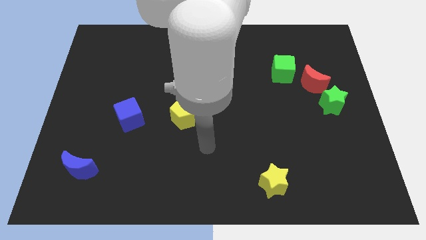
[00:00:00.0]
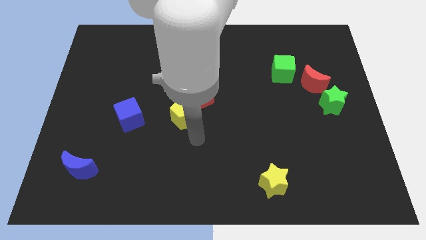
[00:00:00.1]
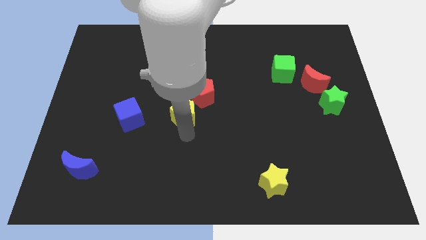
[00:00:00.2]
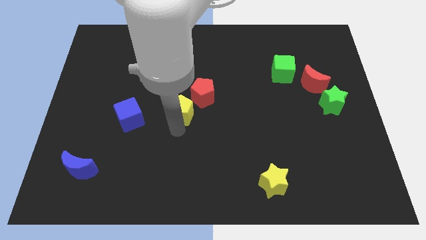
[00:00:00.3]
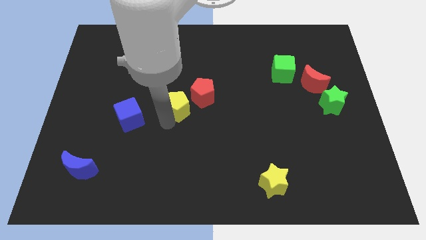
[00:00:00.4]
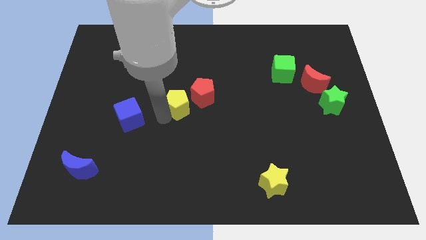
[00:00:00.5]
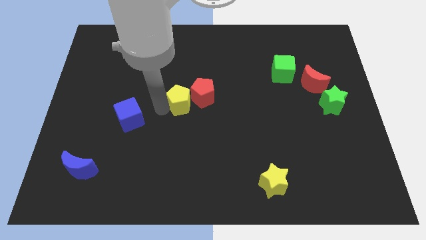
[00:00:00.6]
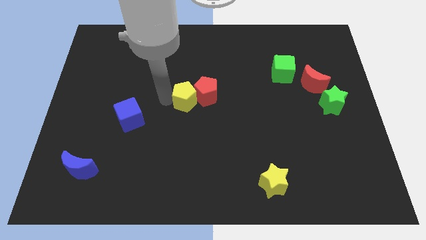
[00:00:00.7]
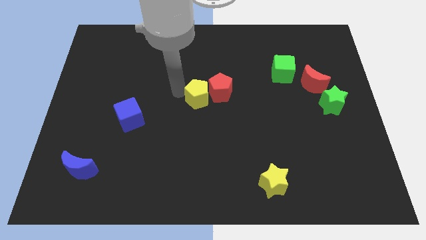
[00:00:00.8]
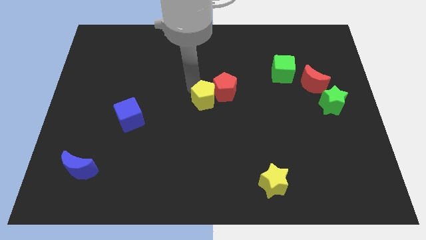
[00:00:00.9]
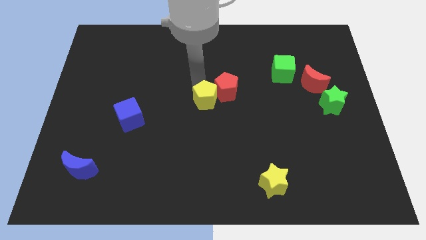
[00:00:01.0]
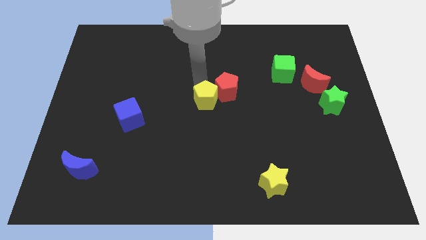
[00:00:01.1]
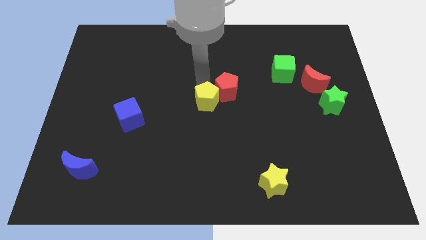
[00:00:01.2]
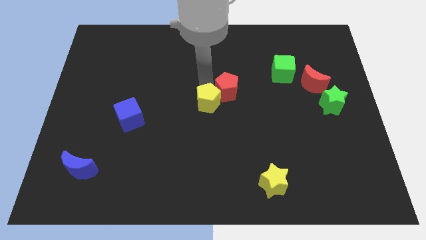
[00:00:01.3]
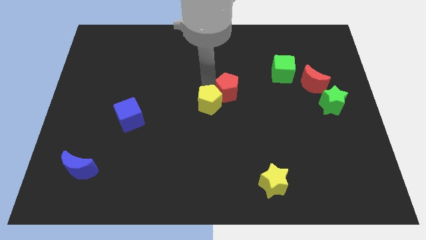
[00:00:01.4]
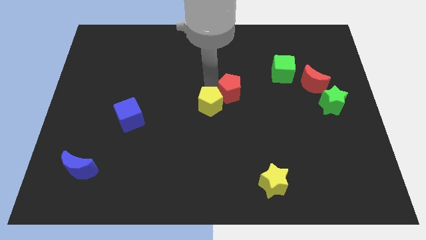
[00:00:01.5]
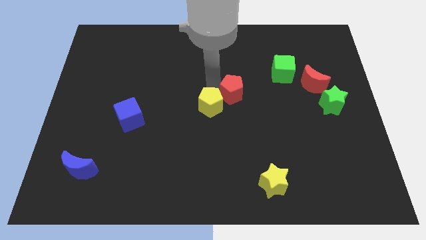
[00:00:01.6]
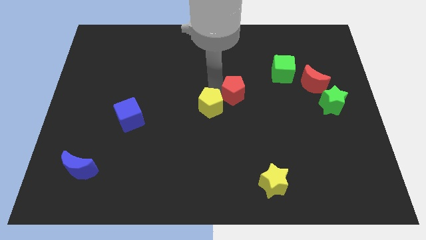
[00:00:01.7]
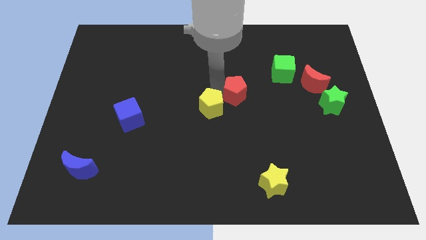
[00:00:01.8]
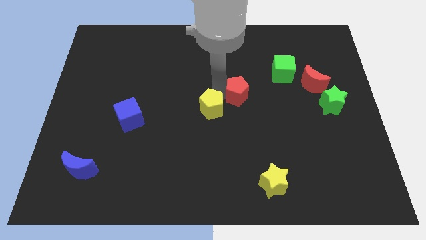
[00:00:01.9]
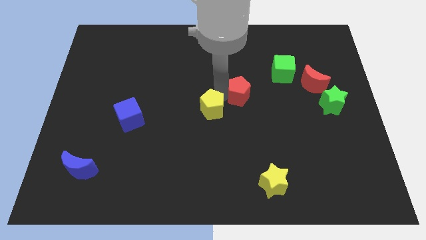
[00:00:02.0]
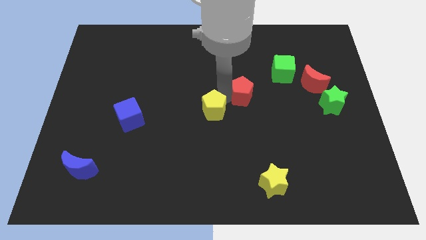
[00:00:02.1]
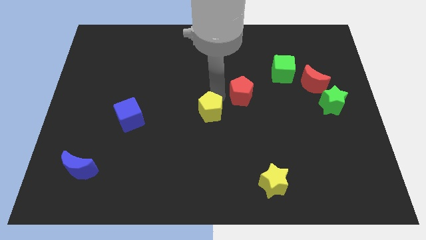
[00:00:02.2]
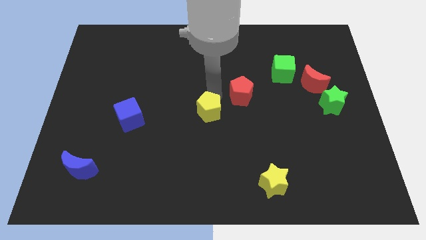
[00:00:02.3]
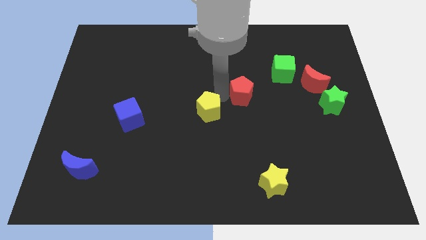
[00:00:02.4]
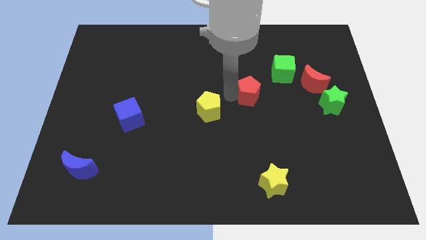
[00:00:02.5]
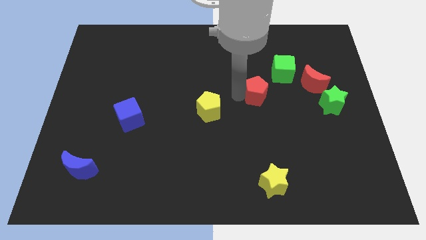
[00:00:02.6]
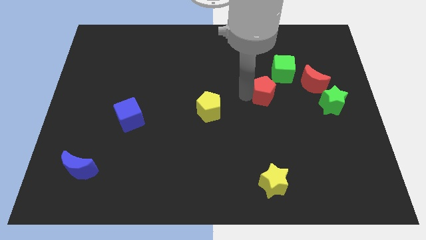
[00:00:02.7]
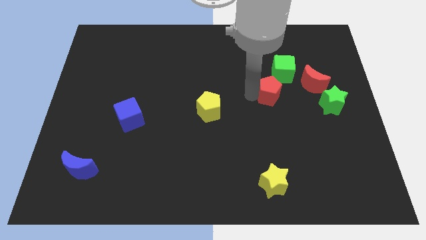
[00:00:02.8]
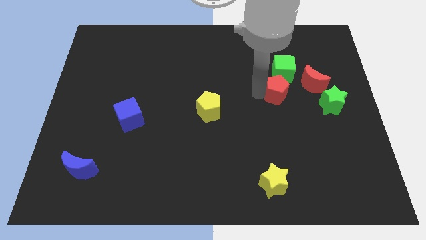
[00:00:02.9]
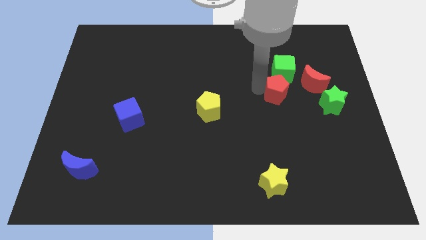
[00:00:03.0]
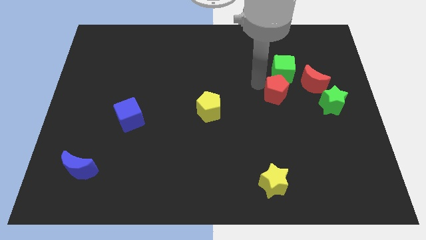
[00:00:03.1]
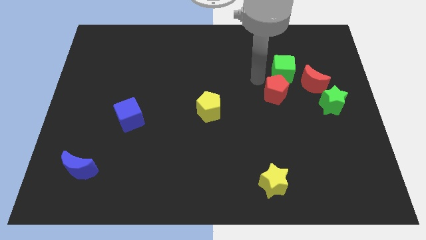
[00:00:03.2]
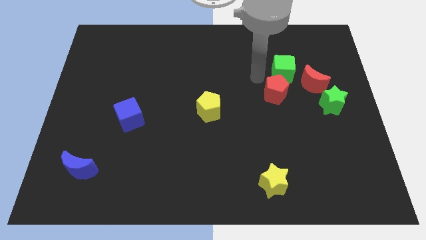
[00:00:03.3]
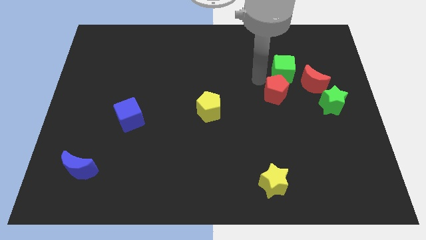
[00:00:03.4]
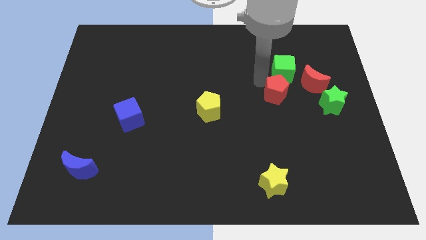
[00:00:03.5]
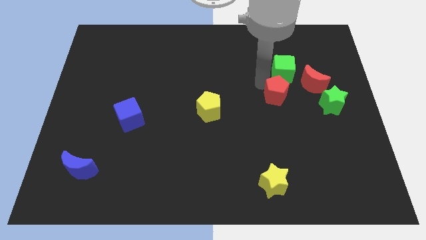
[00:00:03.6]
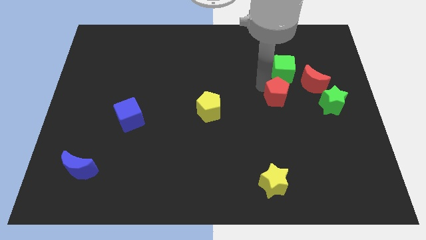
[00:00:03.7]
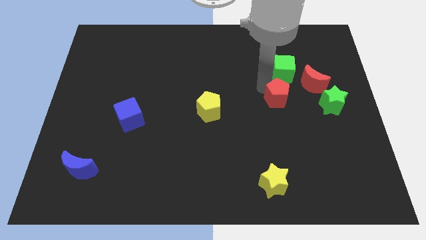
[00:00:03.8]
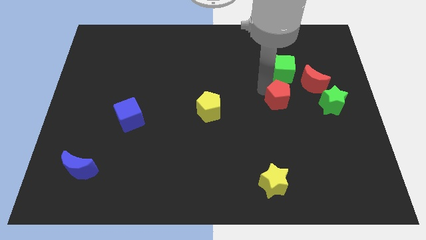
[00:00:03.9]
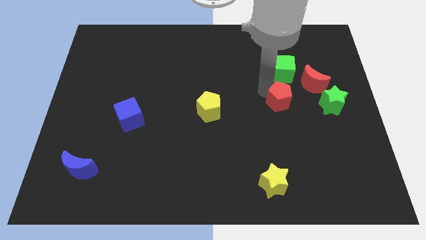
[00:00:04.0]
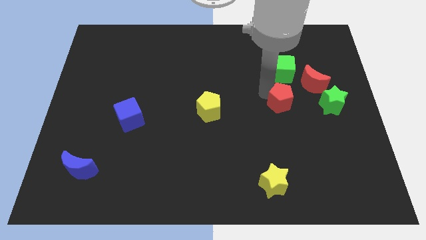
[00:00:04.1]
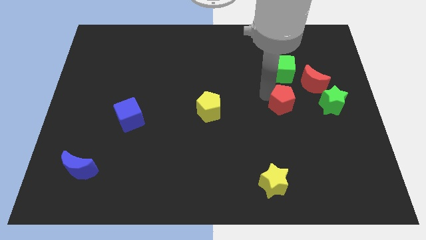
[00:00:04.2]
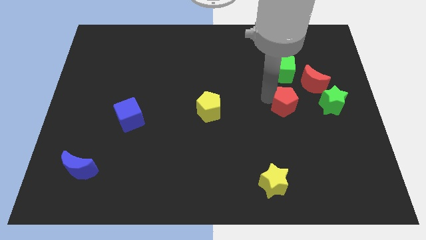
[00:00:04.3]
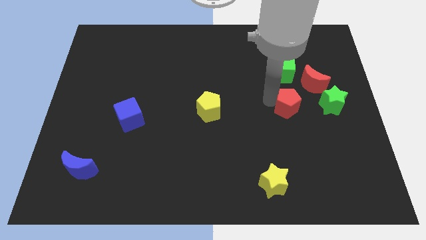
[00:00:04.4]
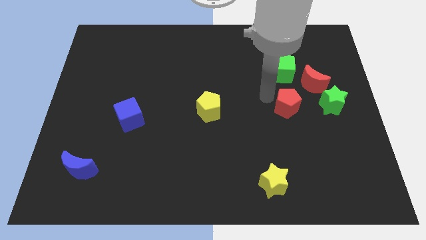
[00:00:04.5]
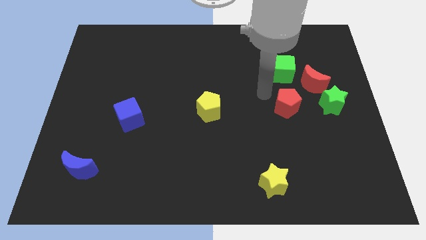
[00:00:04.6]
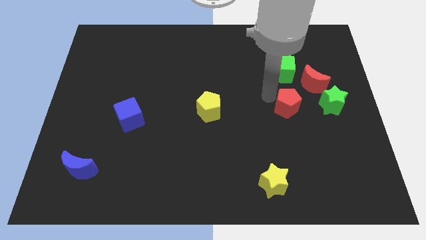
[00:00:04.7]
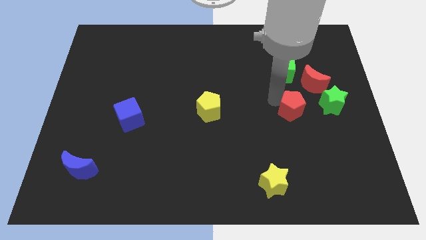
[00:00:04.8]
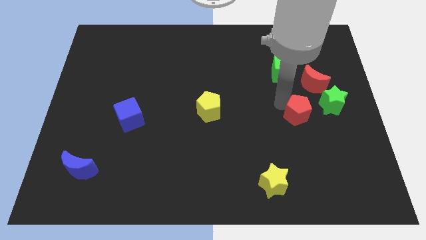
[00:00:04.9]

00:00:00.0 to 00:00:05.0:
put the red pentagon to the bottom left of the green star

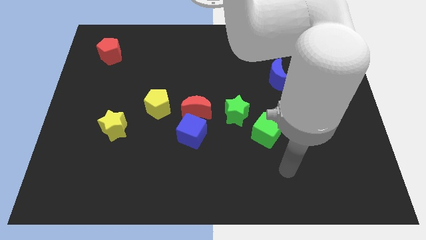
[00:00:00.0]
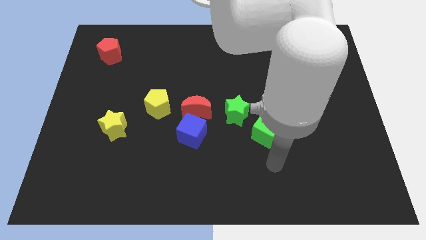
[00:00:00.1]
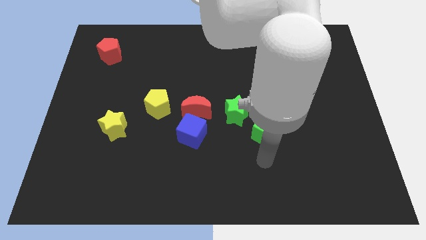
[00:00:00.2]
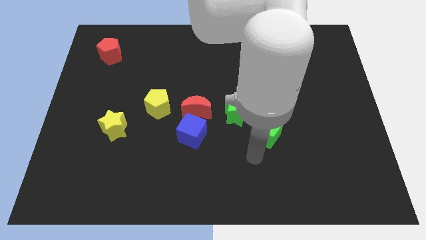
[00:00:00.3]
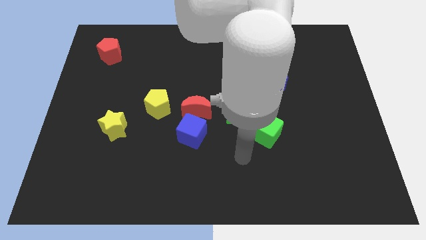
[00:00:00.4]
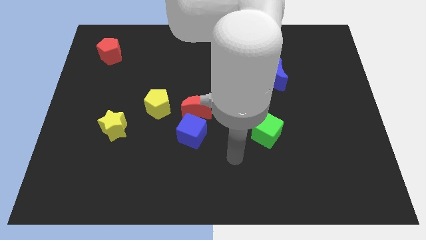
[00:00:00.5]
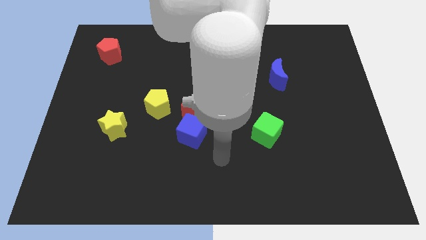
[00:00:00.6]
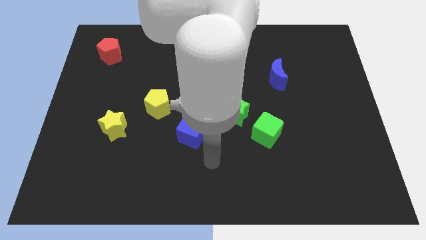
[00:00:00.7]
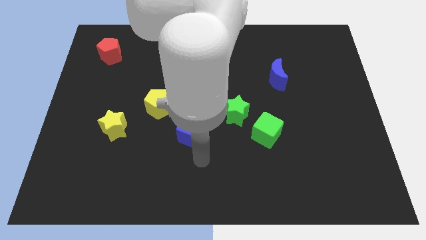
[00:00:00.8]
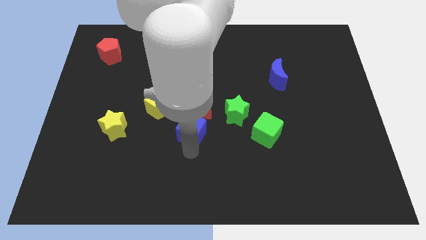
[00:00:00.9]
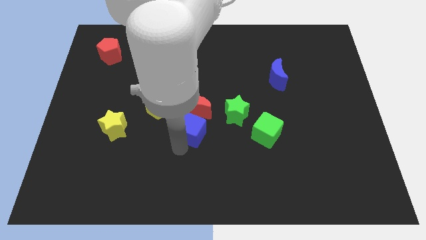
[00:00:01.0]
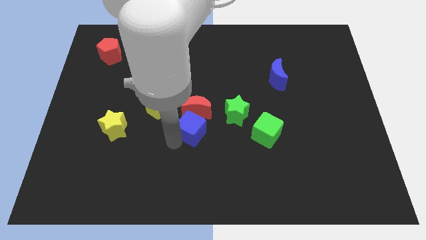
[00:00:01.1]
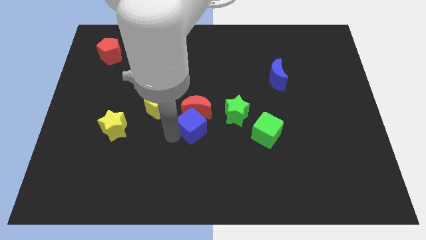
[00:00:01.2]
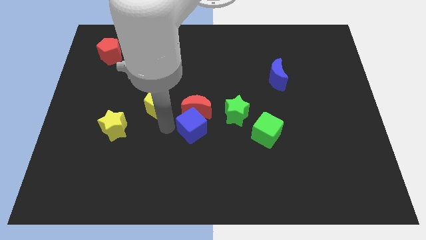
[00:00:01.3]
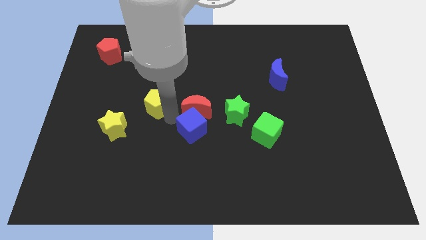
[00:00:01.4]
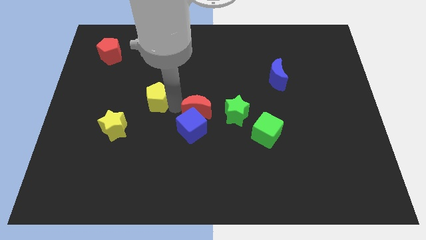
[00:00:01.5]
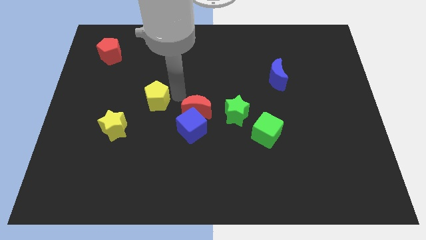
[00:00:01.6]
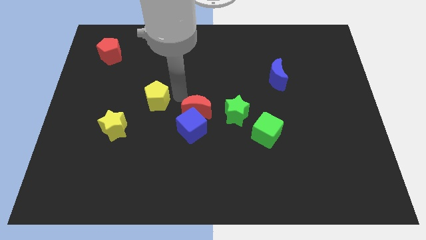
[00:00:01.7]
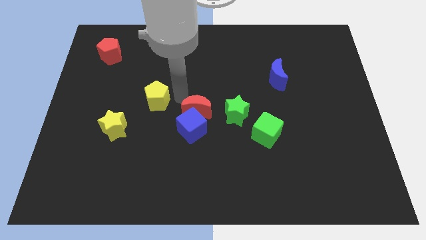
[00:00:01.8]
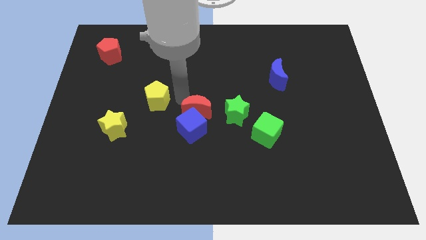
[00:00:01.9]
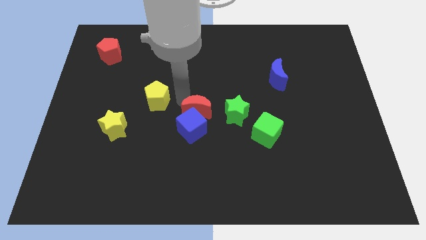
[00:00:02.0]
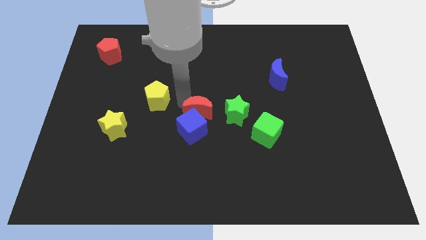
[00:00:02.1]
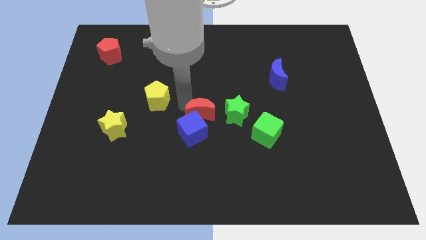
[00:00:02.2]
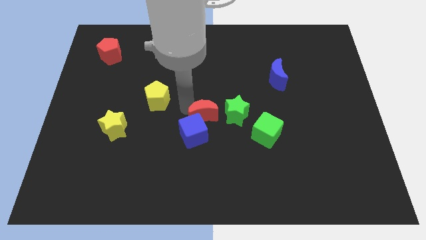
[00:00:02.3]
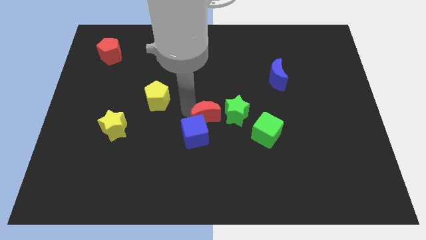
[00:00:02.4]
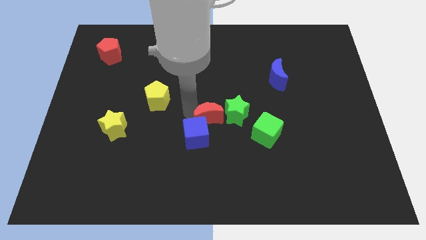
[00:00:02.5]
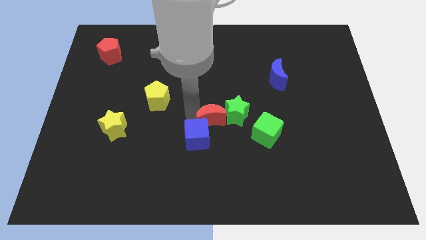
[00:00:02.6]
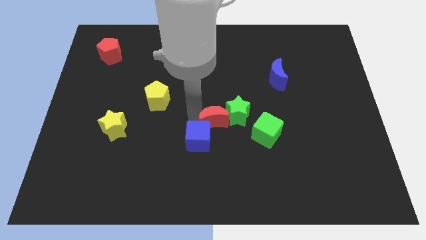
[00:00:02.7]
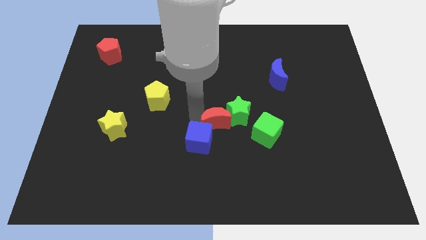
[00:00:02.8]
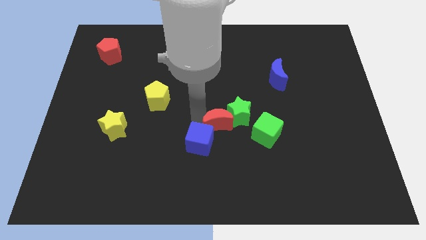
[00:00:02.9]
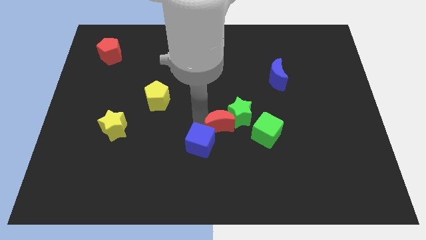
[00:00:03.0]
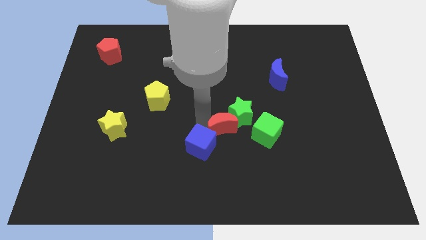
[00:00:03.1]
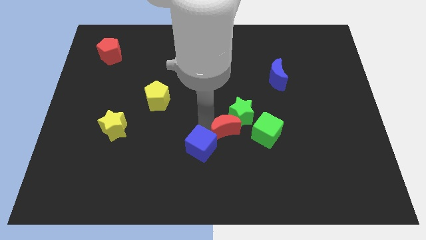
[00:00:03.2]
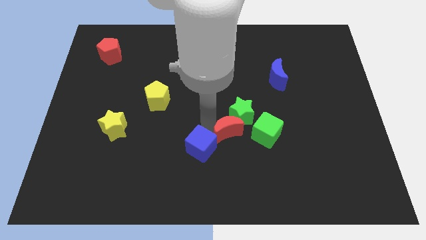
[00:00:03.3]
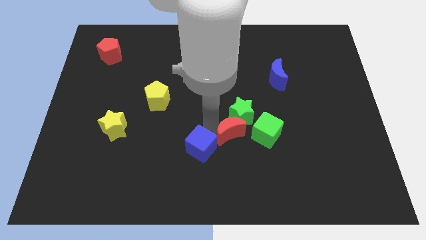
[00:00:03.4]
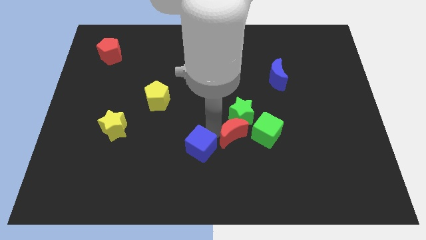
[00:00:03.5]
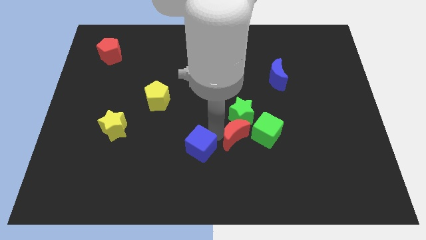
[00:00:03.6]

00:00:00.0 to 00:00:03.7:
put the red moon diagonally down and to the left of the green cube
